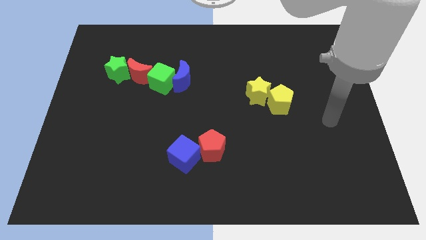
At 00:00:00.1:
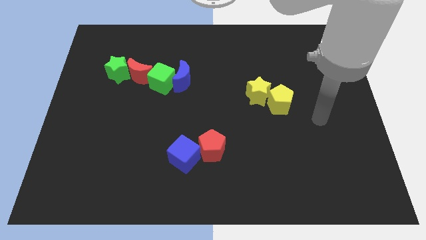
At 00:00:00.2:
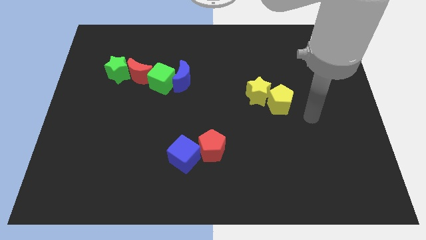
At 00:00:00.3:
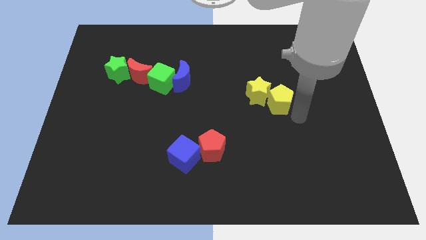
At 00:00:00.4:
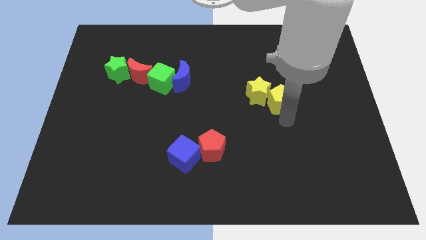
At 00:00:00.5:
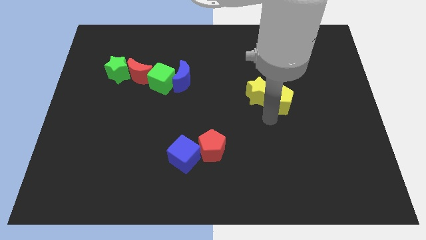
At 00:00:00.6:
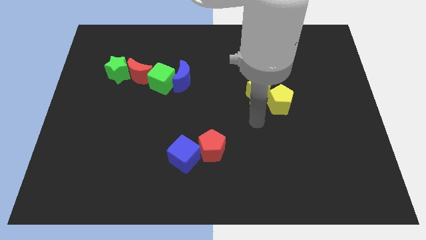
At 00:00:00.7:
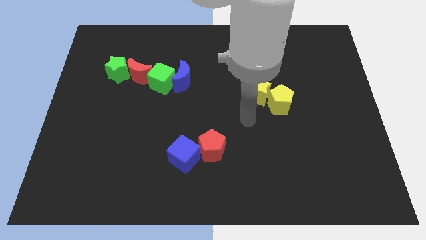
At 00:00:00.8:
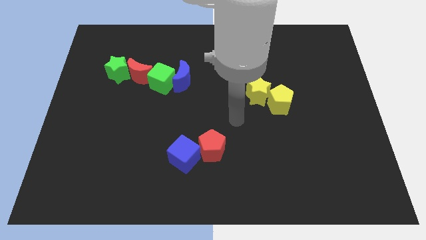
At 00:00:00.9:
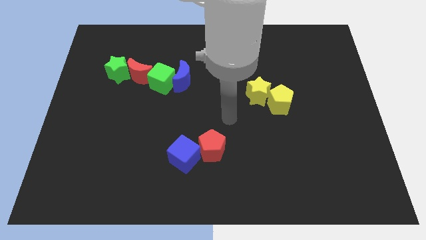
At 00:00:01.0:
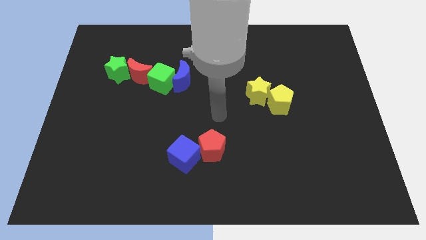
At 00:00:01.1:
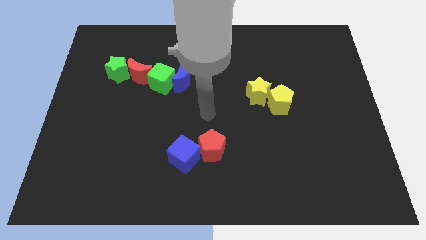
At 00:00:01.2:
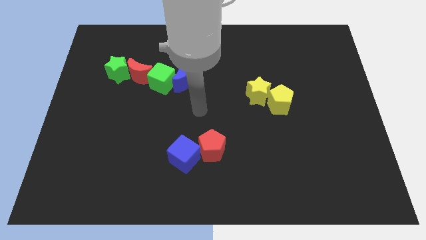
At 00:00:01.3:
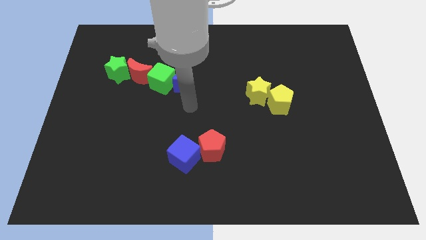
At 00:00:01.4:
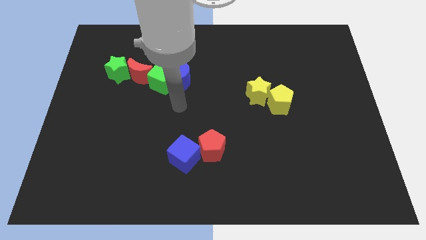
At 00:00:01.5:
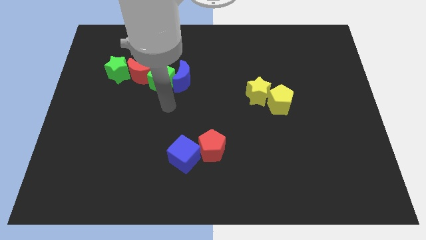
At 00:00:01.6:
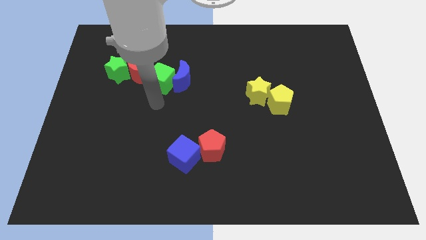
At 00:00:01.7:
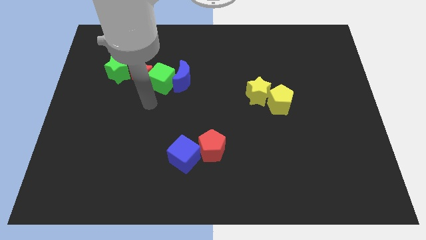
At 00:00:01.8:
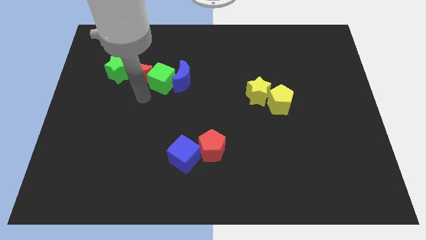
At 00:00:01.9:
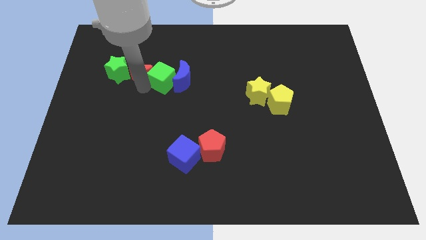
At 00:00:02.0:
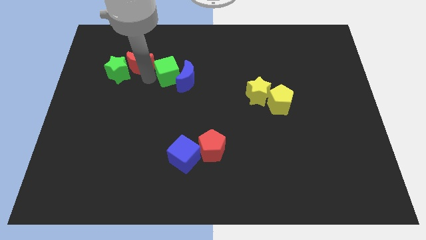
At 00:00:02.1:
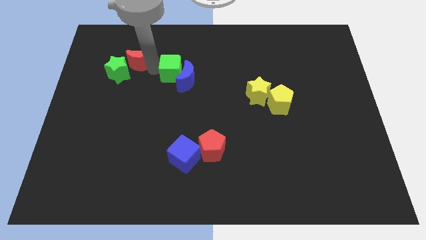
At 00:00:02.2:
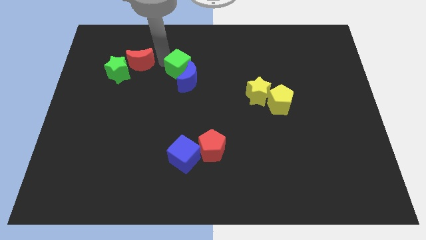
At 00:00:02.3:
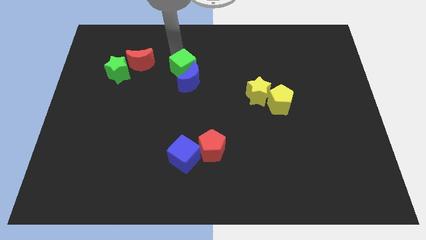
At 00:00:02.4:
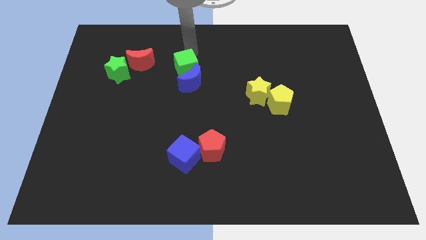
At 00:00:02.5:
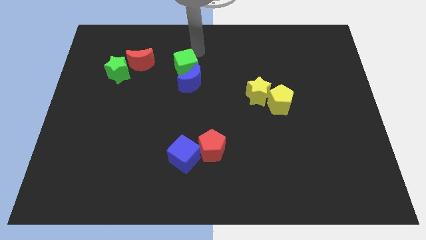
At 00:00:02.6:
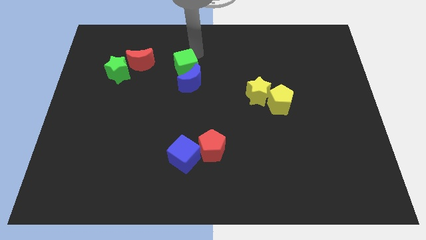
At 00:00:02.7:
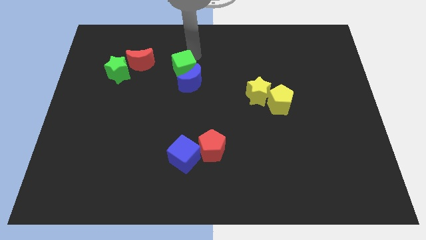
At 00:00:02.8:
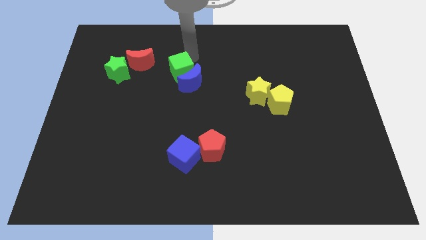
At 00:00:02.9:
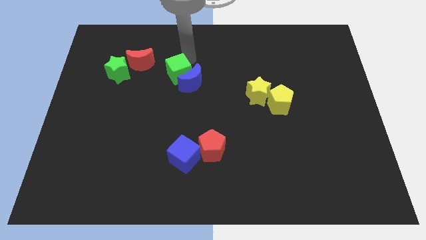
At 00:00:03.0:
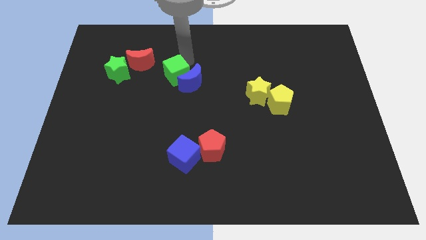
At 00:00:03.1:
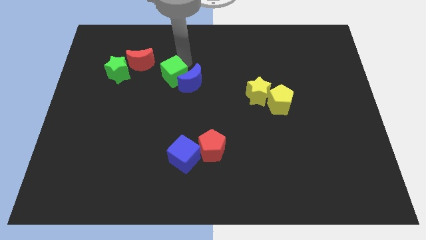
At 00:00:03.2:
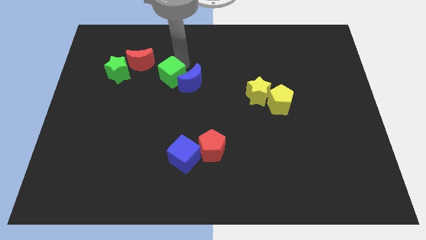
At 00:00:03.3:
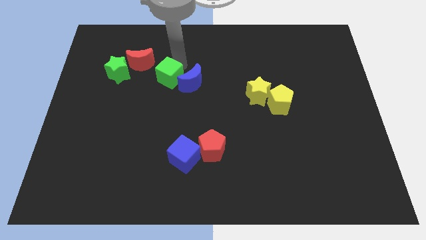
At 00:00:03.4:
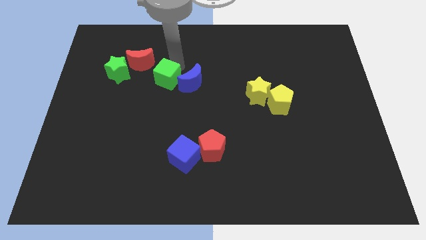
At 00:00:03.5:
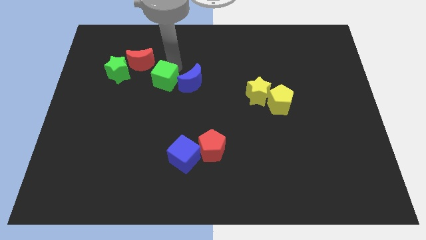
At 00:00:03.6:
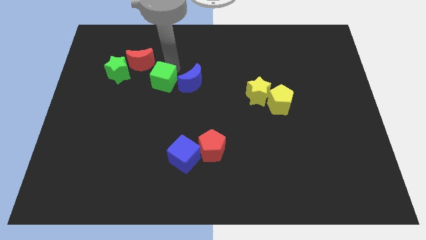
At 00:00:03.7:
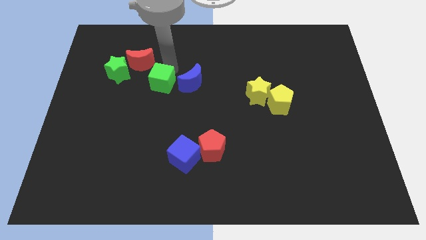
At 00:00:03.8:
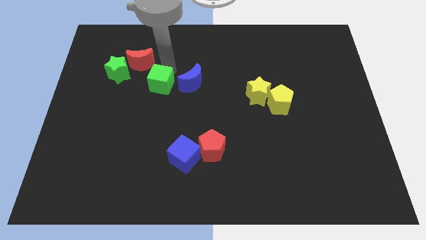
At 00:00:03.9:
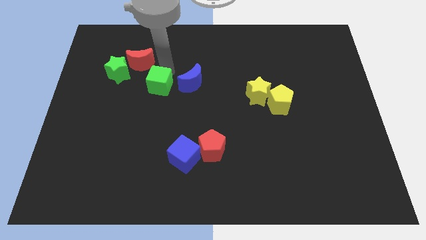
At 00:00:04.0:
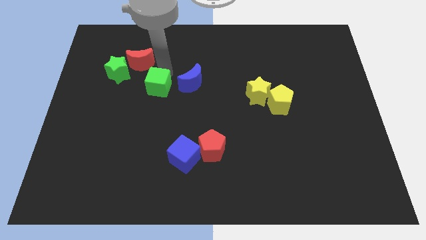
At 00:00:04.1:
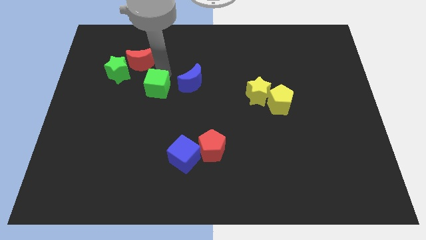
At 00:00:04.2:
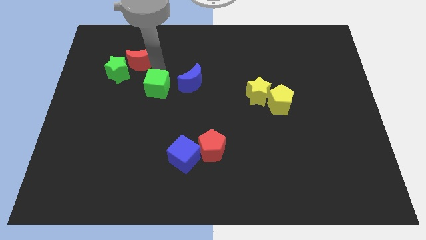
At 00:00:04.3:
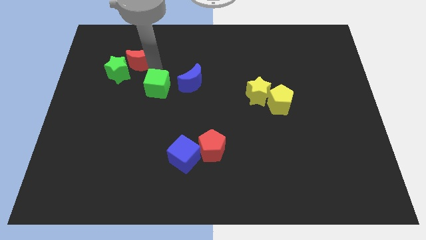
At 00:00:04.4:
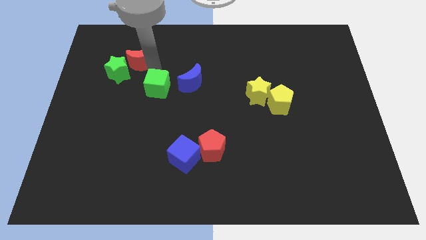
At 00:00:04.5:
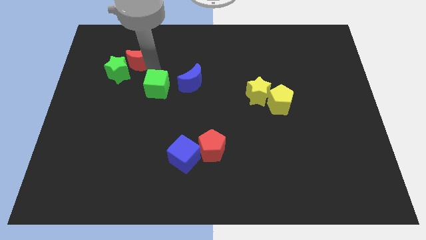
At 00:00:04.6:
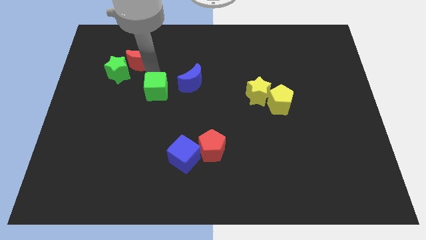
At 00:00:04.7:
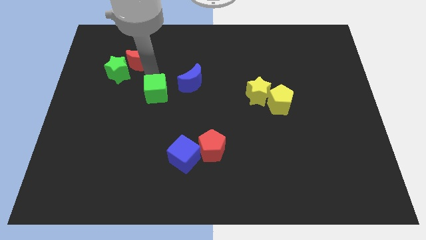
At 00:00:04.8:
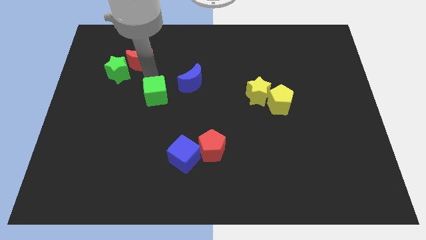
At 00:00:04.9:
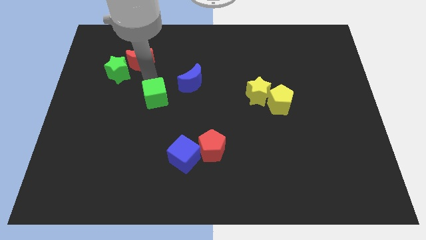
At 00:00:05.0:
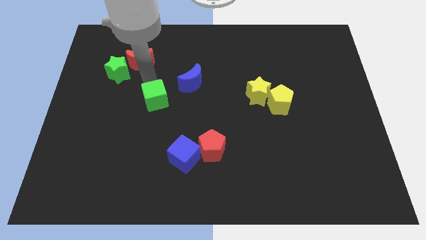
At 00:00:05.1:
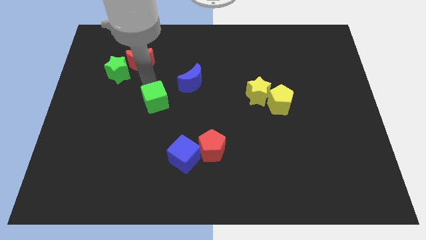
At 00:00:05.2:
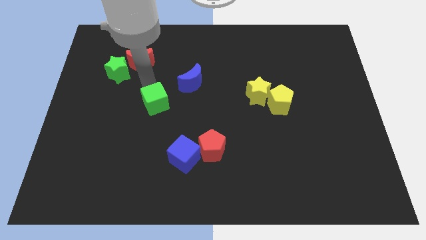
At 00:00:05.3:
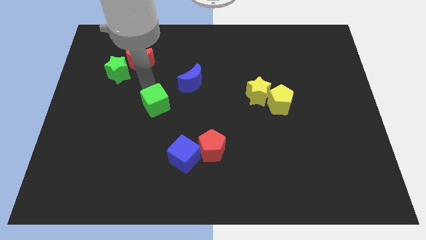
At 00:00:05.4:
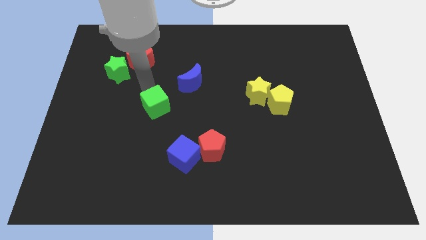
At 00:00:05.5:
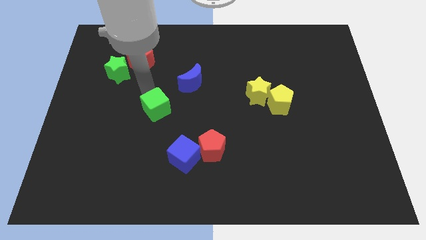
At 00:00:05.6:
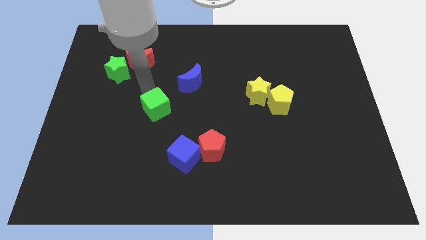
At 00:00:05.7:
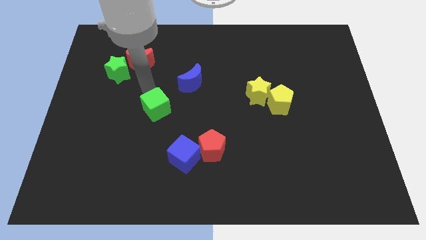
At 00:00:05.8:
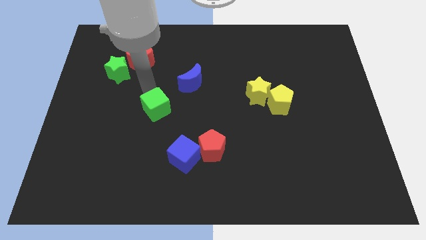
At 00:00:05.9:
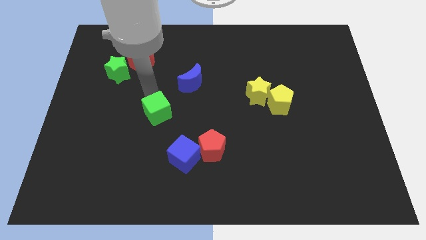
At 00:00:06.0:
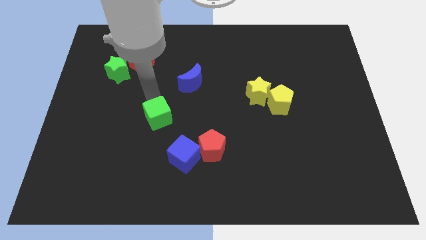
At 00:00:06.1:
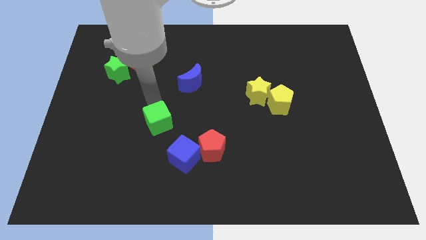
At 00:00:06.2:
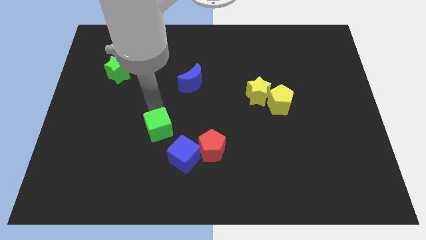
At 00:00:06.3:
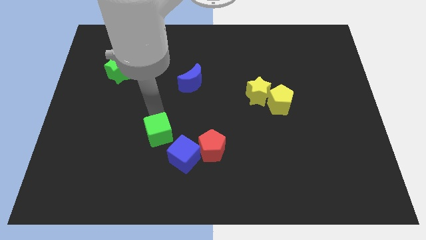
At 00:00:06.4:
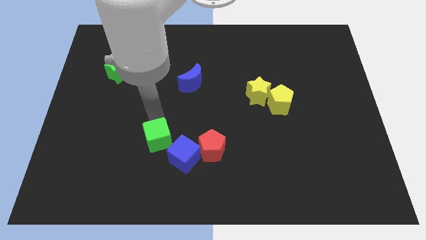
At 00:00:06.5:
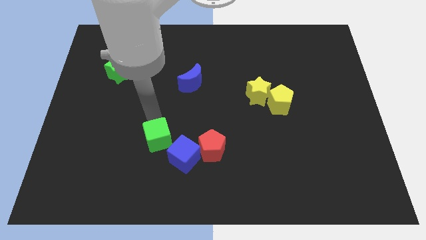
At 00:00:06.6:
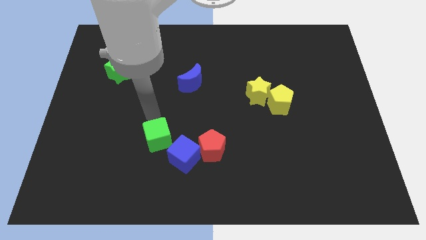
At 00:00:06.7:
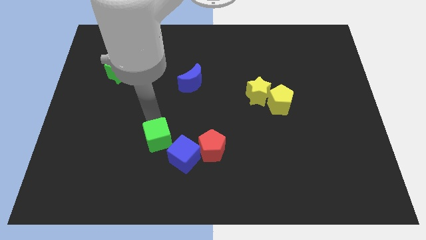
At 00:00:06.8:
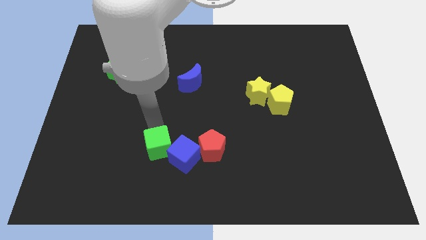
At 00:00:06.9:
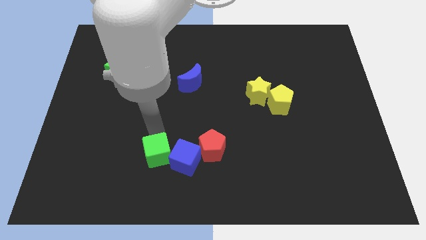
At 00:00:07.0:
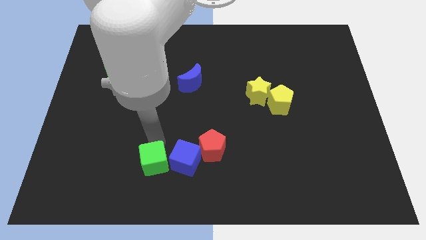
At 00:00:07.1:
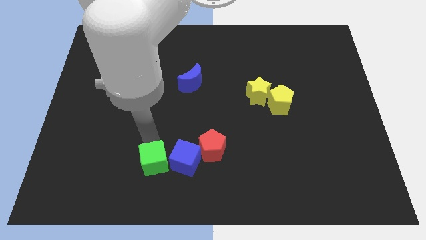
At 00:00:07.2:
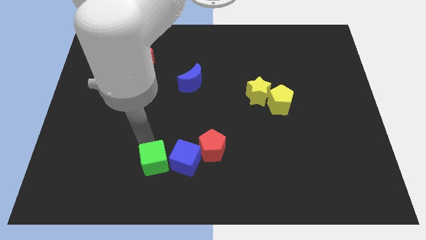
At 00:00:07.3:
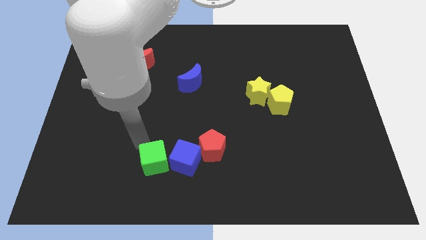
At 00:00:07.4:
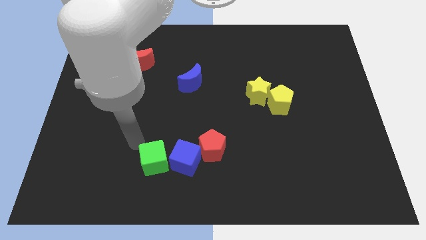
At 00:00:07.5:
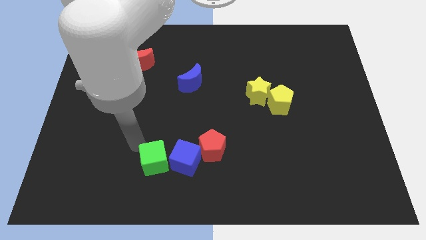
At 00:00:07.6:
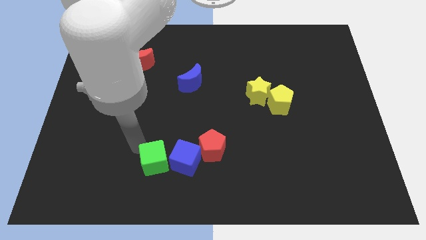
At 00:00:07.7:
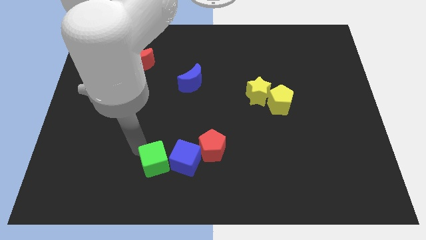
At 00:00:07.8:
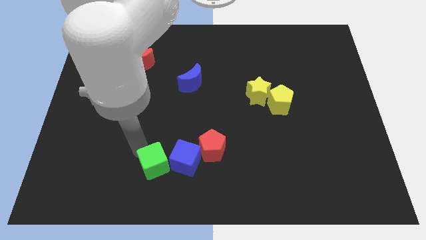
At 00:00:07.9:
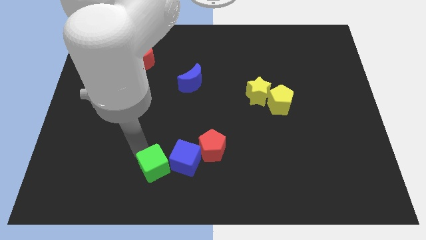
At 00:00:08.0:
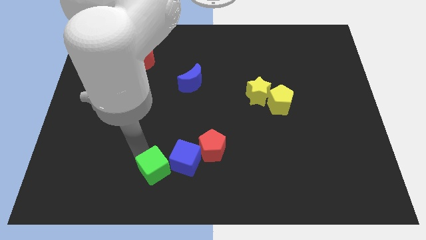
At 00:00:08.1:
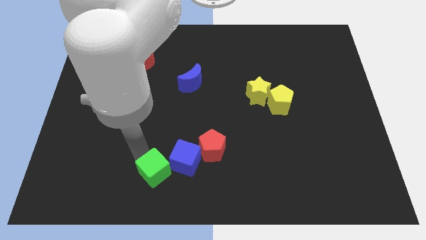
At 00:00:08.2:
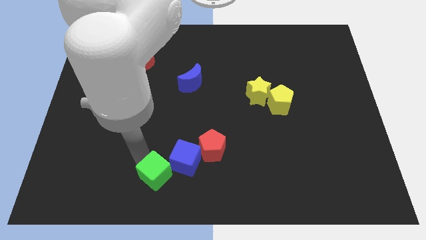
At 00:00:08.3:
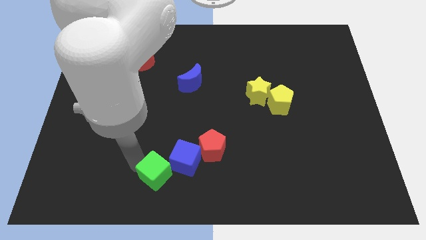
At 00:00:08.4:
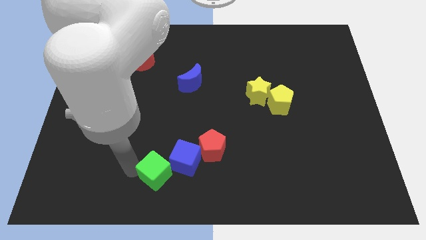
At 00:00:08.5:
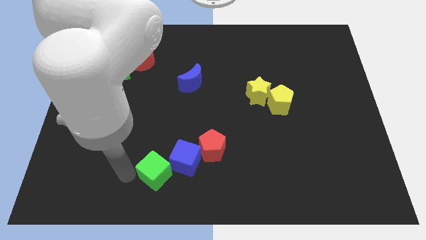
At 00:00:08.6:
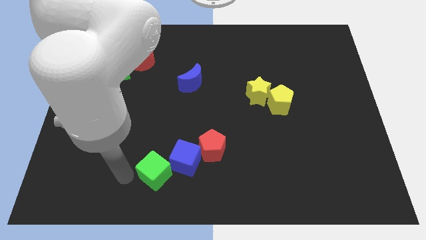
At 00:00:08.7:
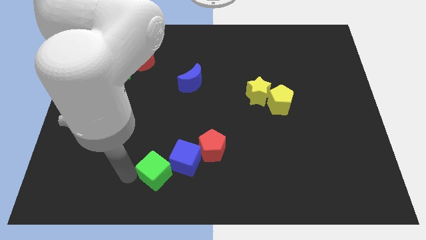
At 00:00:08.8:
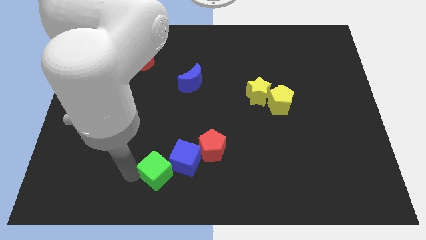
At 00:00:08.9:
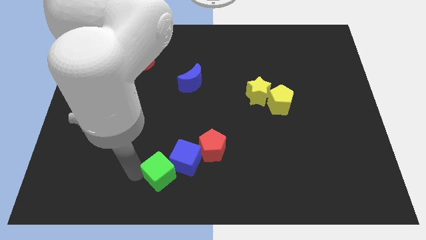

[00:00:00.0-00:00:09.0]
push the green cube to the bottom left side of the red pentagon
